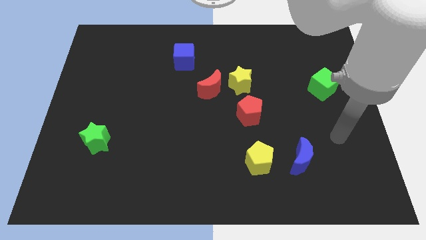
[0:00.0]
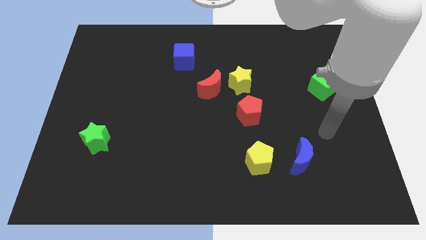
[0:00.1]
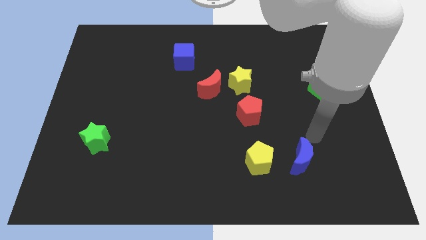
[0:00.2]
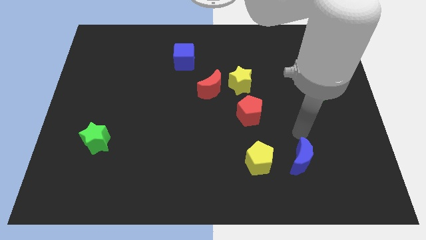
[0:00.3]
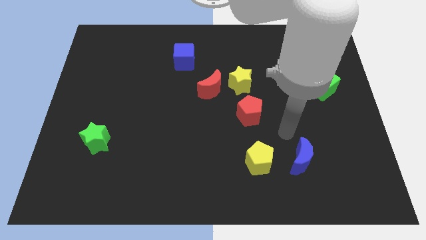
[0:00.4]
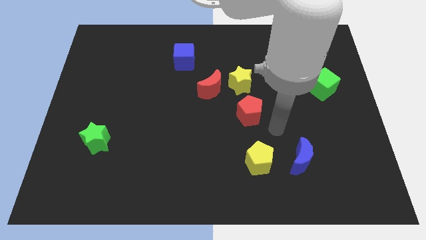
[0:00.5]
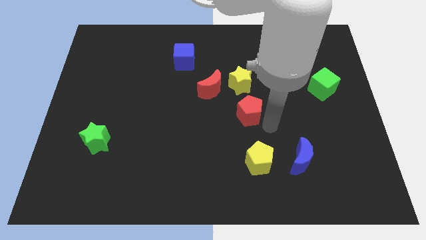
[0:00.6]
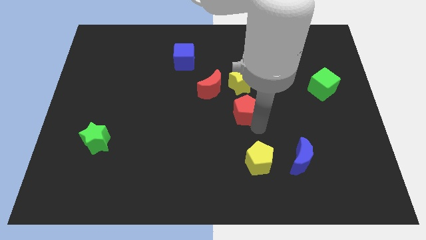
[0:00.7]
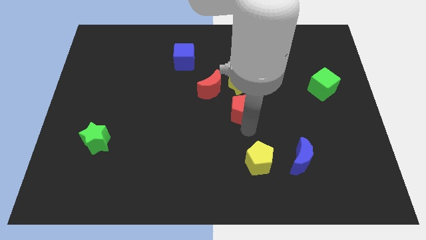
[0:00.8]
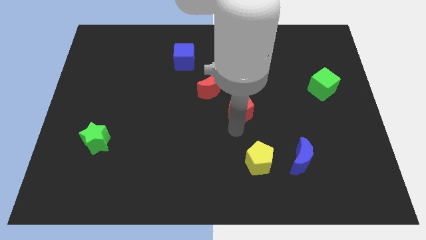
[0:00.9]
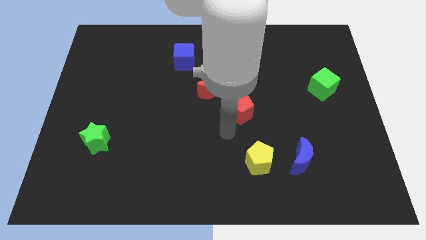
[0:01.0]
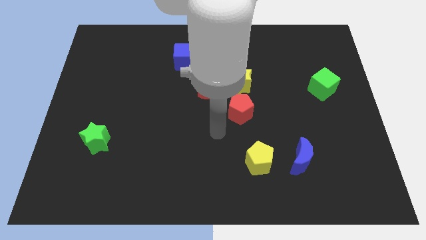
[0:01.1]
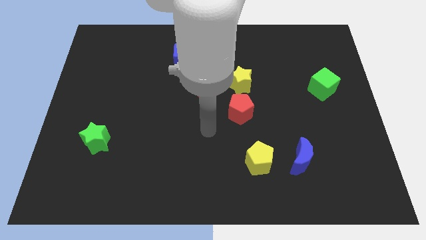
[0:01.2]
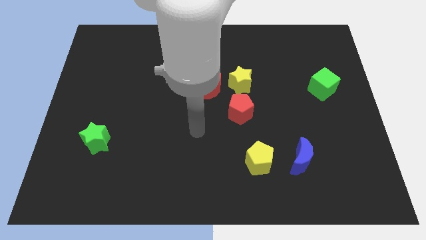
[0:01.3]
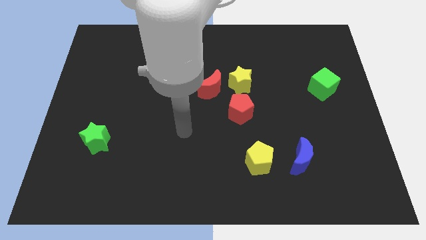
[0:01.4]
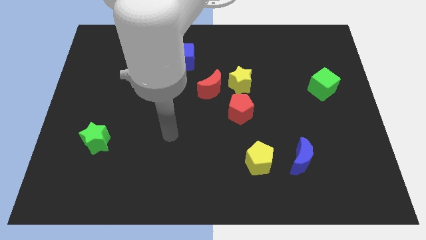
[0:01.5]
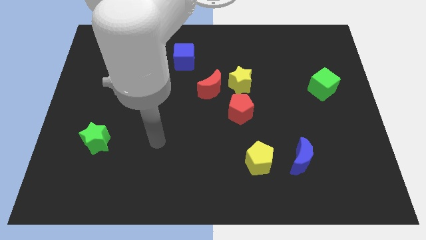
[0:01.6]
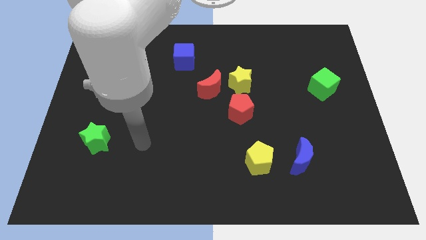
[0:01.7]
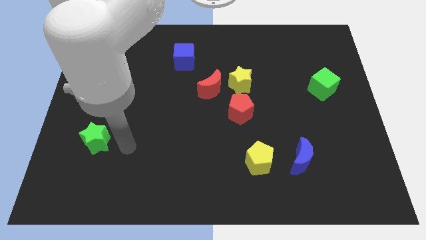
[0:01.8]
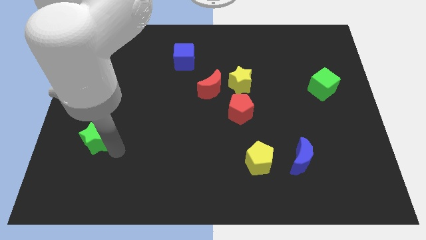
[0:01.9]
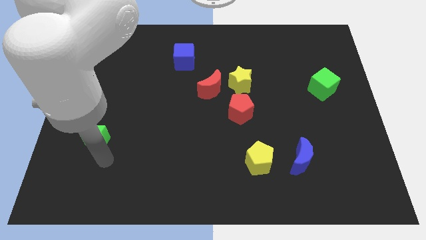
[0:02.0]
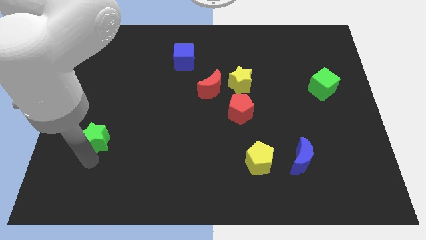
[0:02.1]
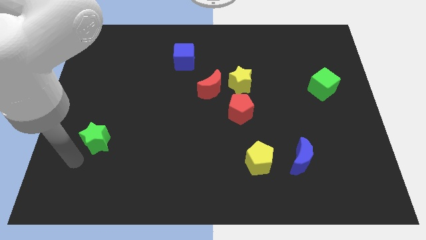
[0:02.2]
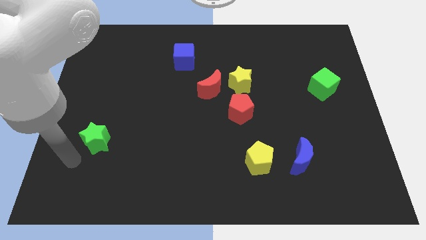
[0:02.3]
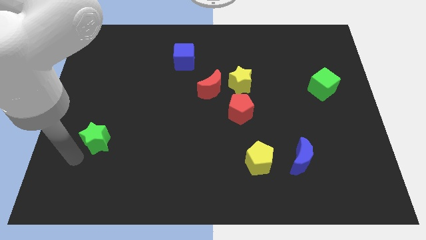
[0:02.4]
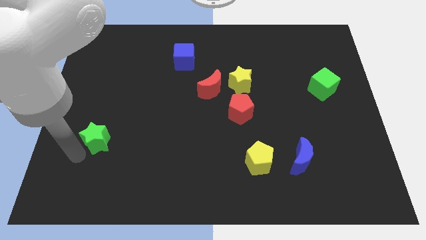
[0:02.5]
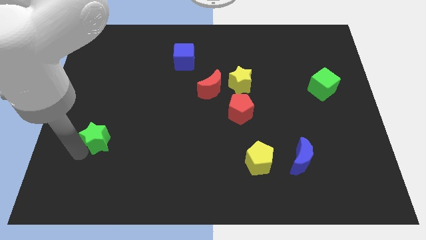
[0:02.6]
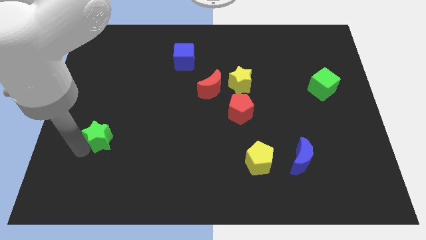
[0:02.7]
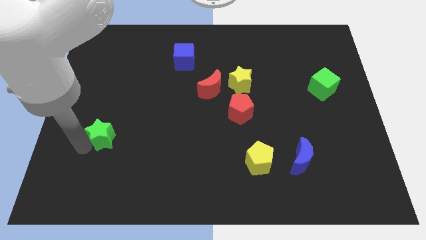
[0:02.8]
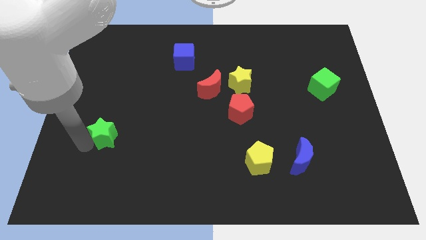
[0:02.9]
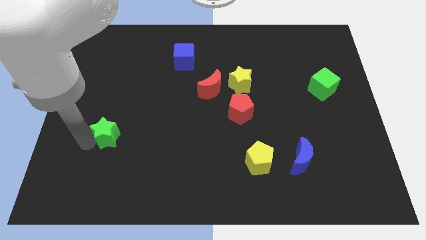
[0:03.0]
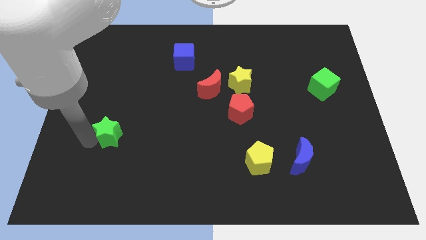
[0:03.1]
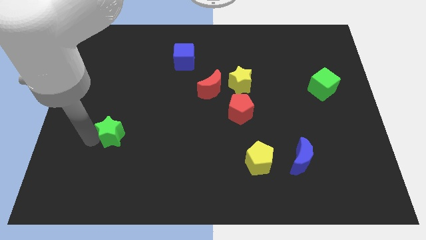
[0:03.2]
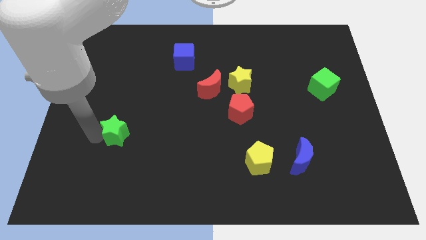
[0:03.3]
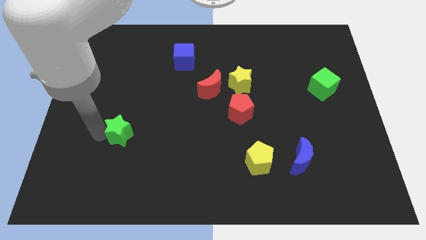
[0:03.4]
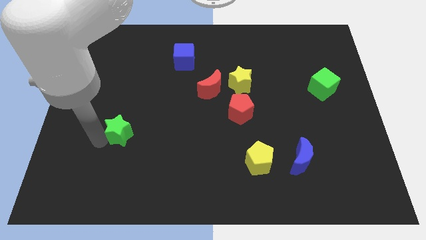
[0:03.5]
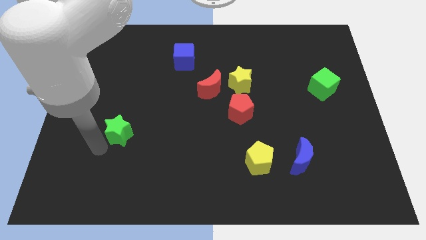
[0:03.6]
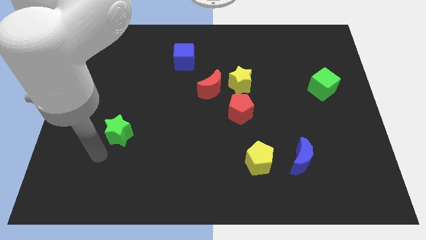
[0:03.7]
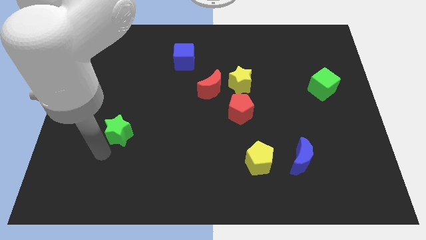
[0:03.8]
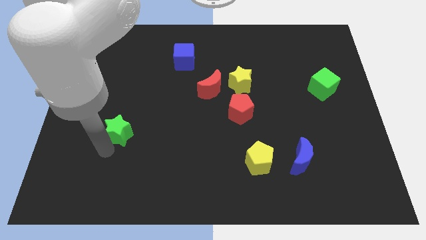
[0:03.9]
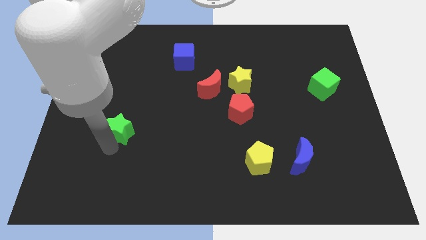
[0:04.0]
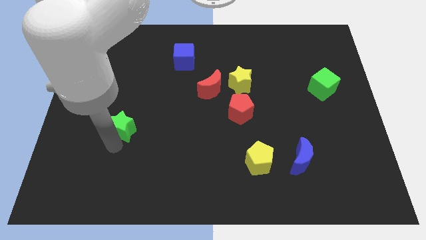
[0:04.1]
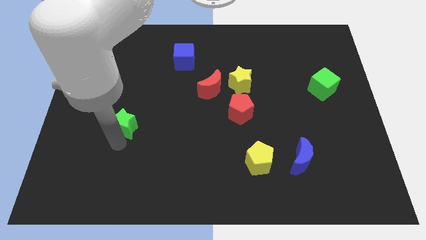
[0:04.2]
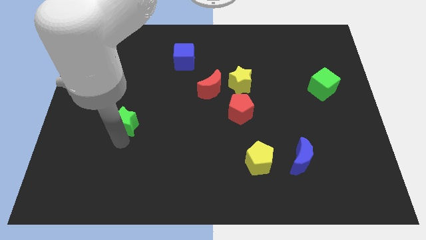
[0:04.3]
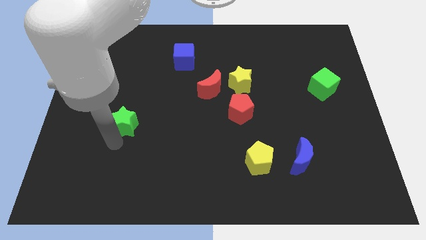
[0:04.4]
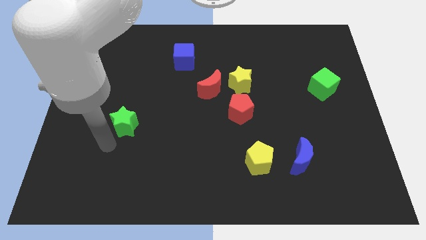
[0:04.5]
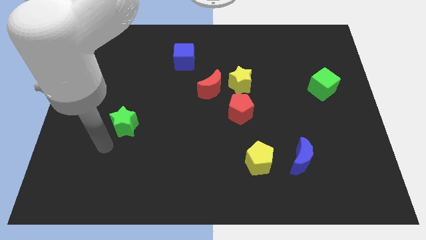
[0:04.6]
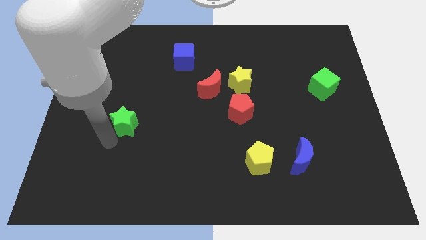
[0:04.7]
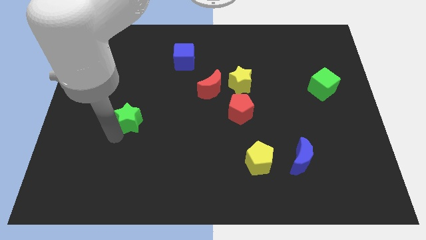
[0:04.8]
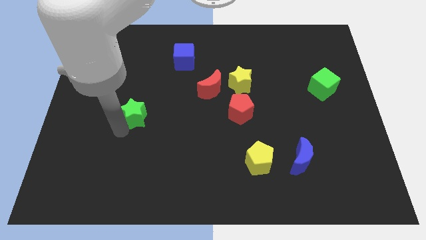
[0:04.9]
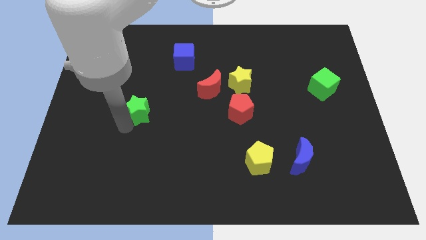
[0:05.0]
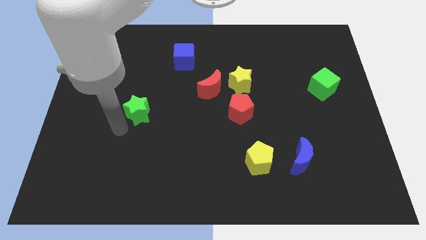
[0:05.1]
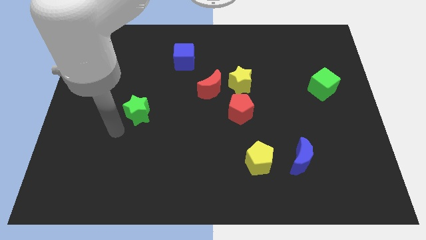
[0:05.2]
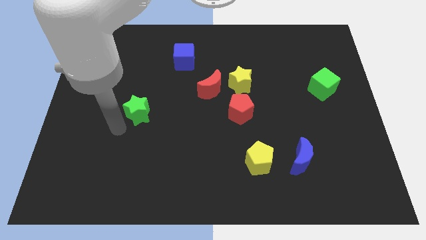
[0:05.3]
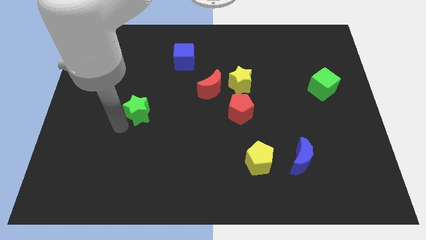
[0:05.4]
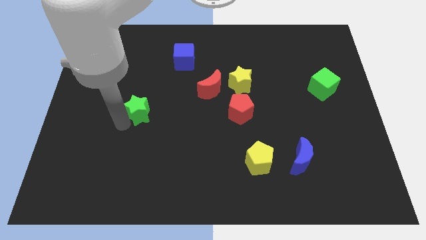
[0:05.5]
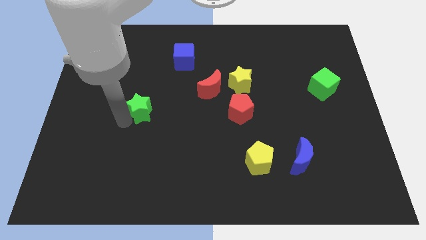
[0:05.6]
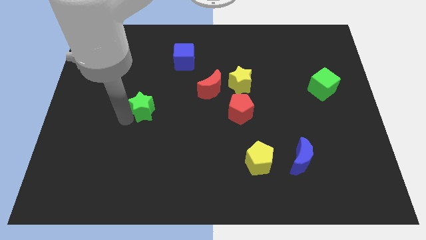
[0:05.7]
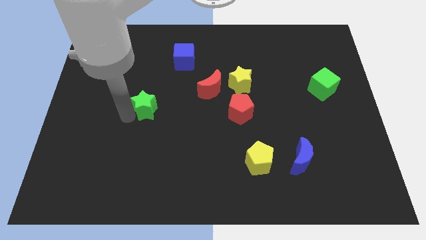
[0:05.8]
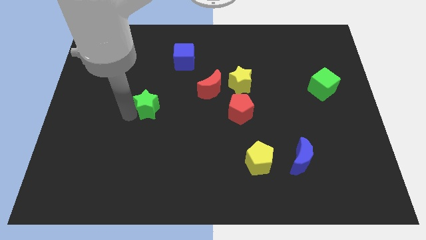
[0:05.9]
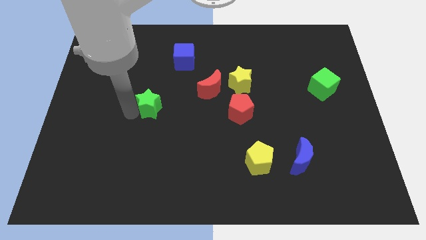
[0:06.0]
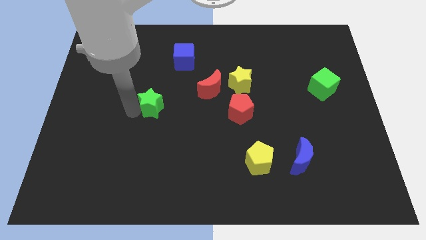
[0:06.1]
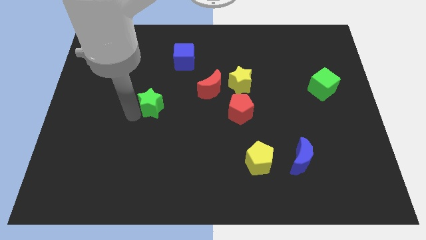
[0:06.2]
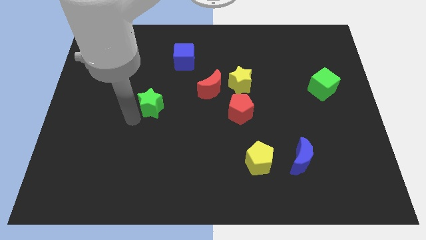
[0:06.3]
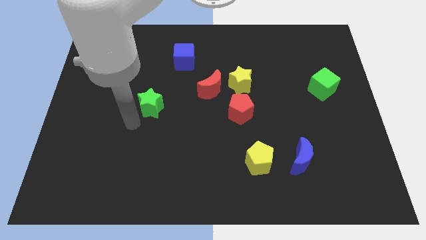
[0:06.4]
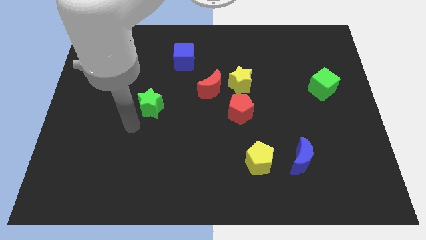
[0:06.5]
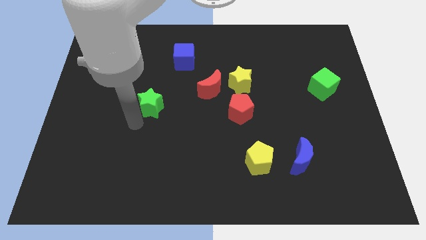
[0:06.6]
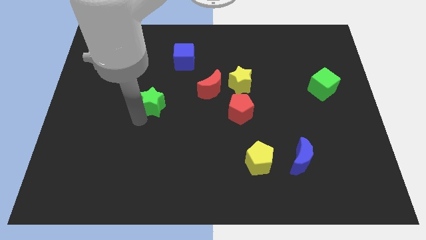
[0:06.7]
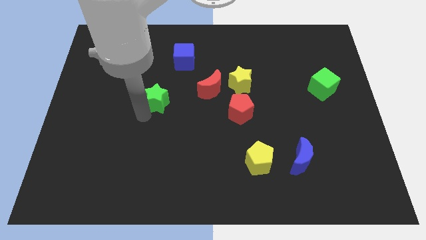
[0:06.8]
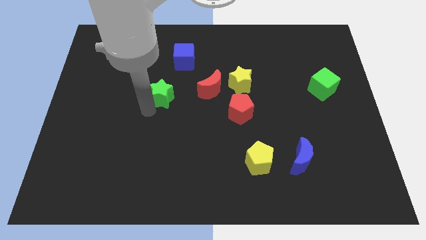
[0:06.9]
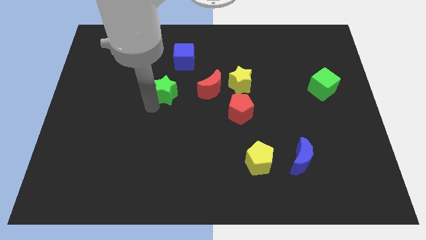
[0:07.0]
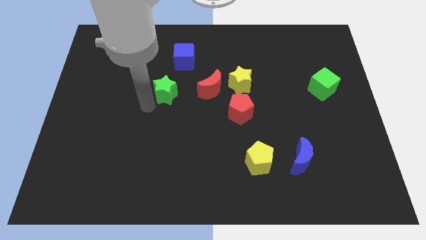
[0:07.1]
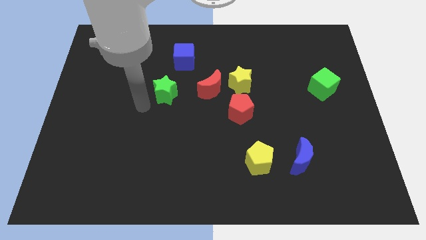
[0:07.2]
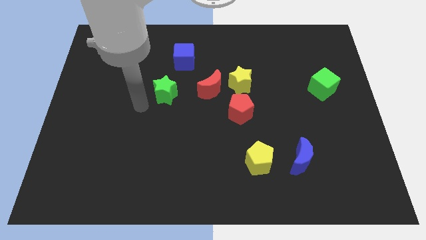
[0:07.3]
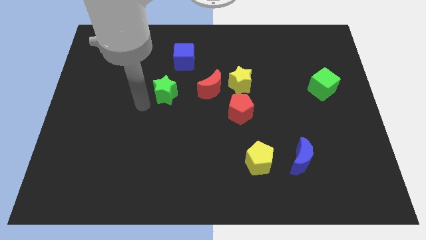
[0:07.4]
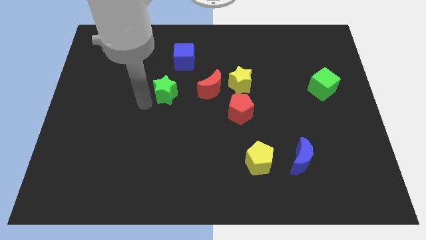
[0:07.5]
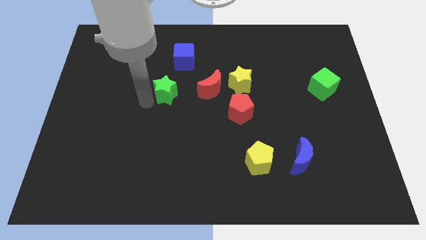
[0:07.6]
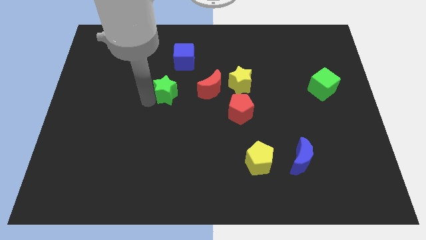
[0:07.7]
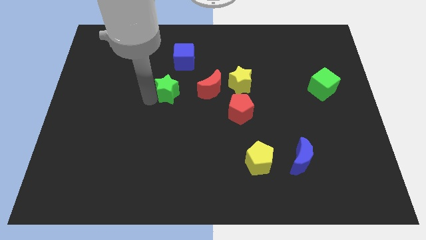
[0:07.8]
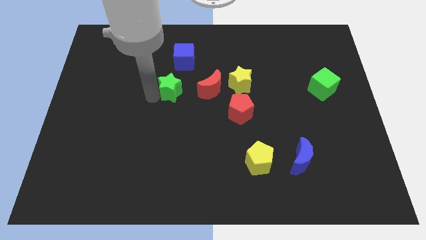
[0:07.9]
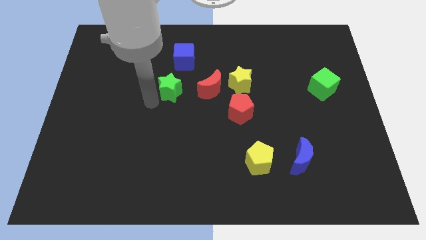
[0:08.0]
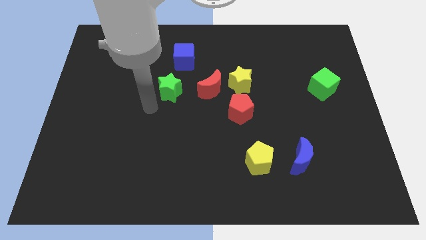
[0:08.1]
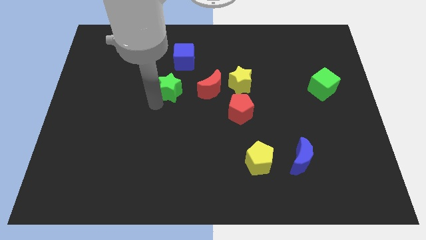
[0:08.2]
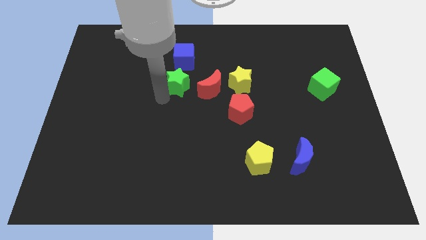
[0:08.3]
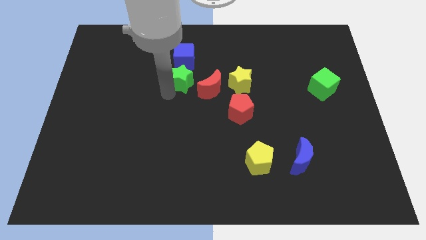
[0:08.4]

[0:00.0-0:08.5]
push the green star to the top left side of the red moon
